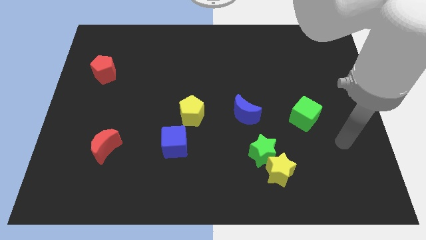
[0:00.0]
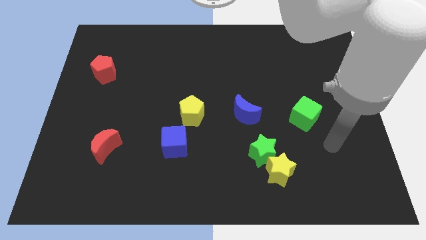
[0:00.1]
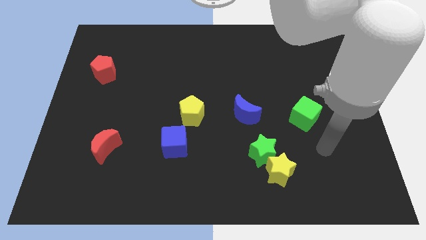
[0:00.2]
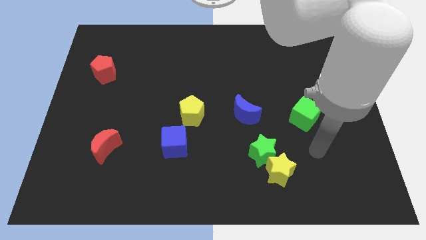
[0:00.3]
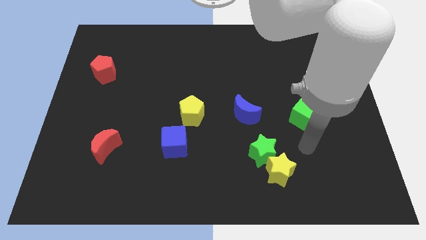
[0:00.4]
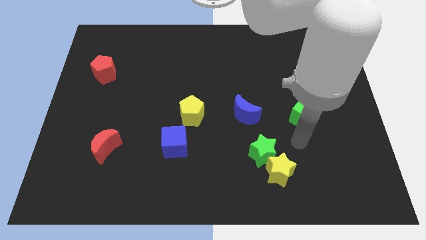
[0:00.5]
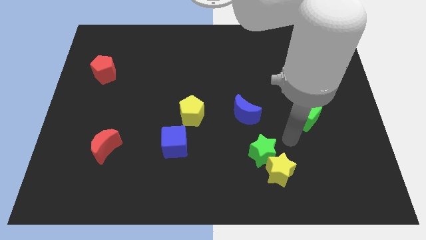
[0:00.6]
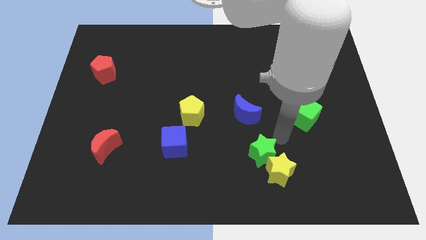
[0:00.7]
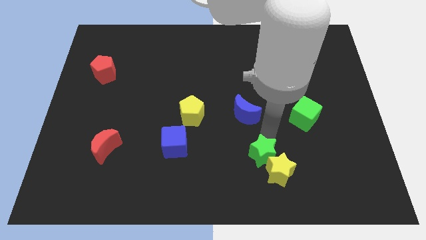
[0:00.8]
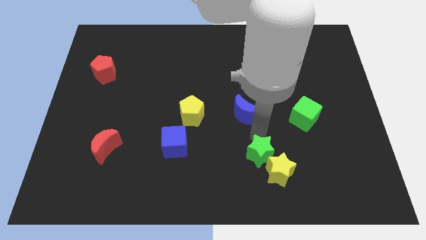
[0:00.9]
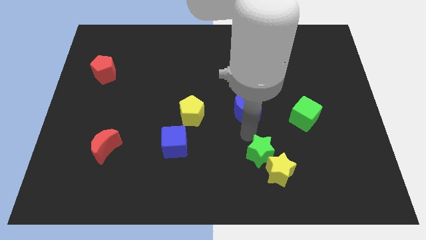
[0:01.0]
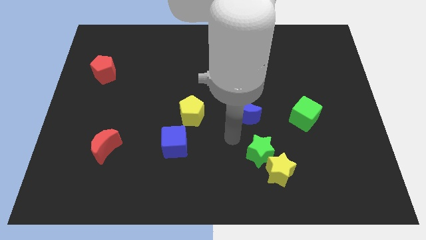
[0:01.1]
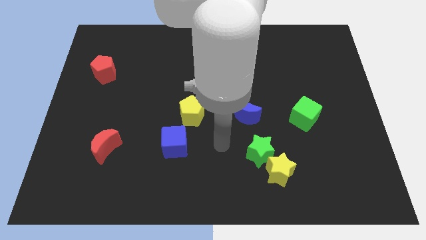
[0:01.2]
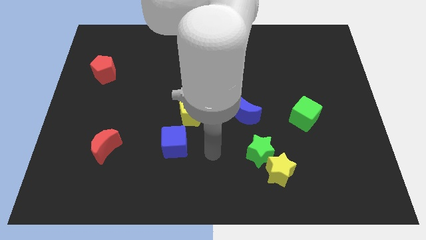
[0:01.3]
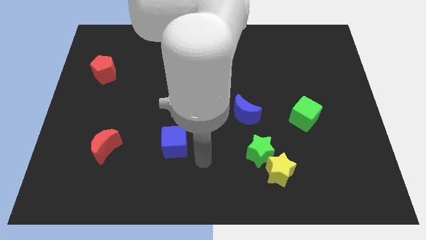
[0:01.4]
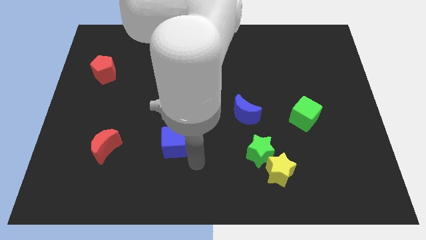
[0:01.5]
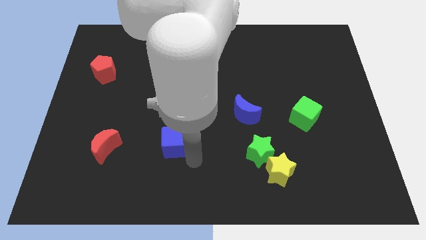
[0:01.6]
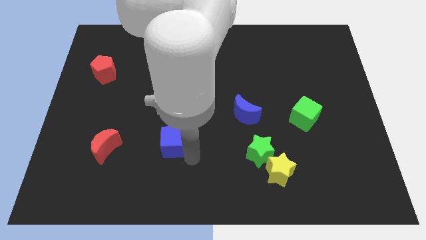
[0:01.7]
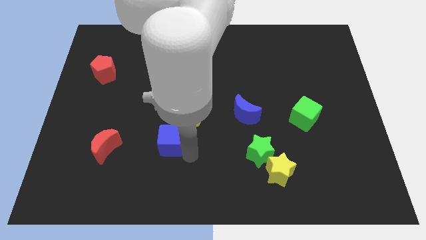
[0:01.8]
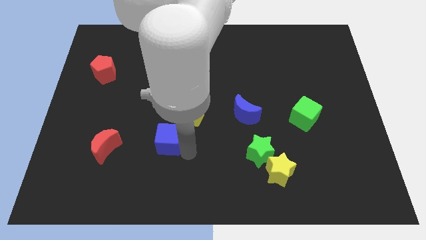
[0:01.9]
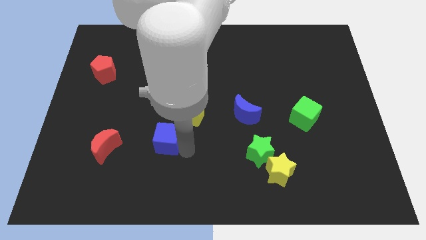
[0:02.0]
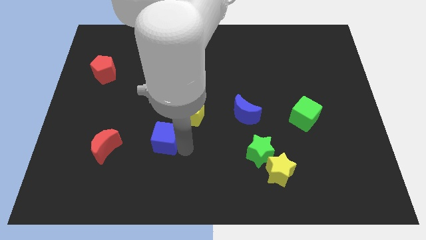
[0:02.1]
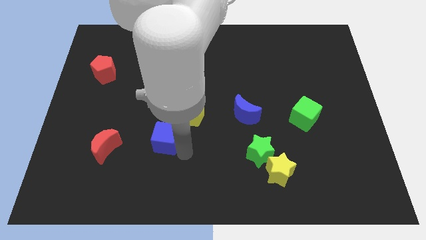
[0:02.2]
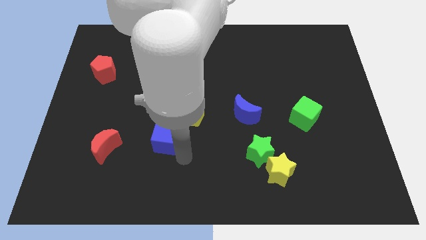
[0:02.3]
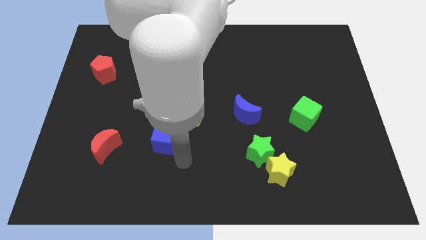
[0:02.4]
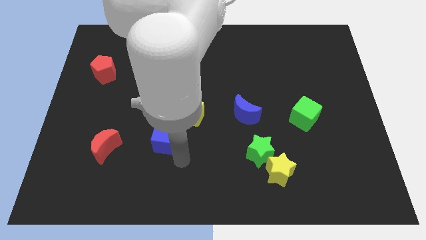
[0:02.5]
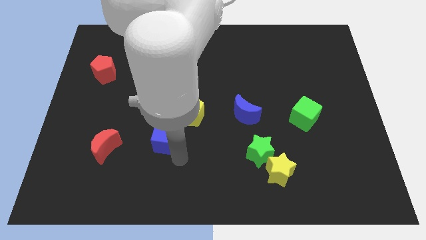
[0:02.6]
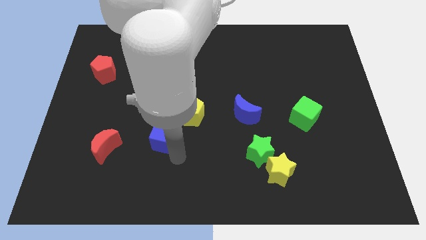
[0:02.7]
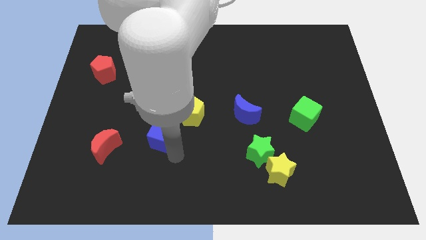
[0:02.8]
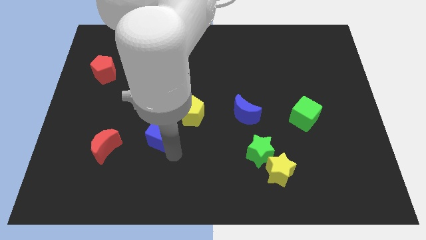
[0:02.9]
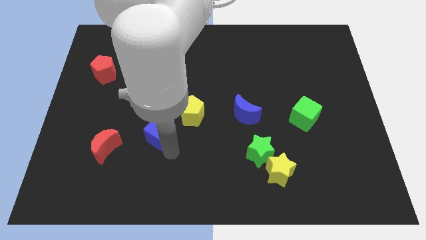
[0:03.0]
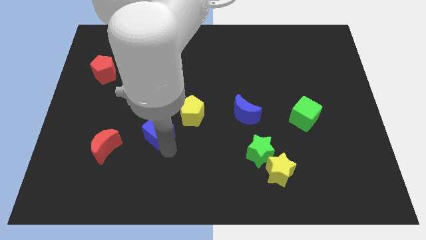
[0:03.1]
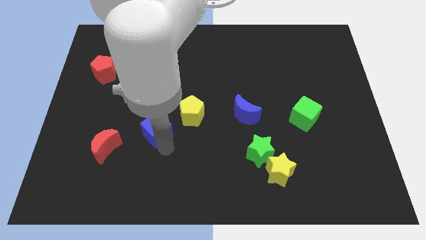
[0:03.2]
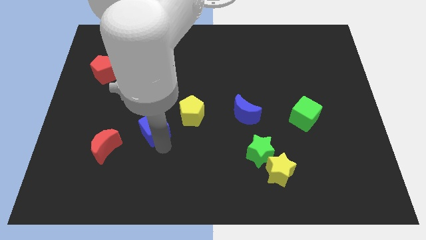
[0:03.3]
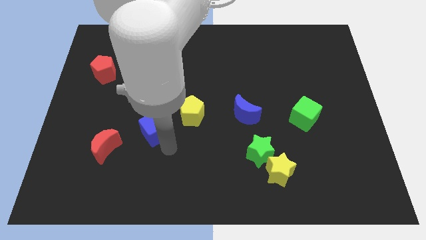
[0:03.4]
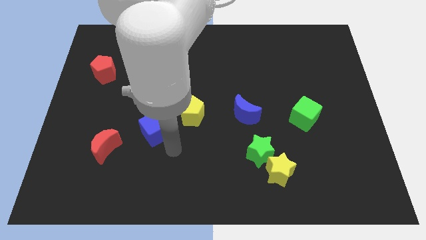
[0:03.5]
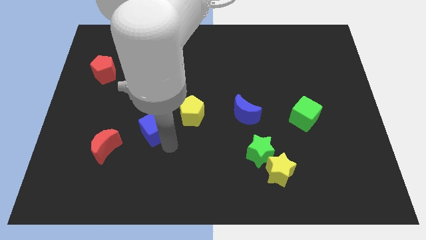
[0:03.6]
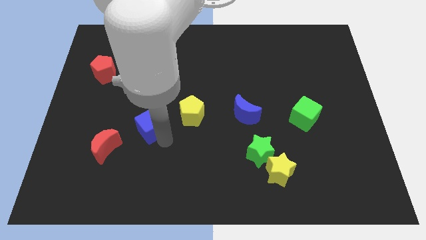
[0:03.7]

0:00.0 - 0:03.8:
push the blue cube upwards and then to the left slightly

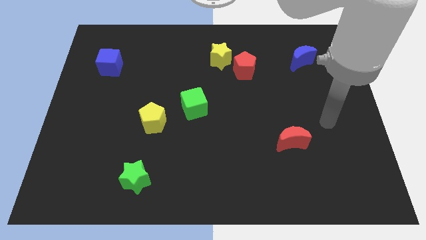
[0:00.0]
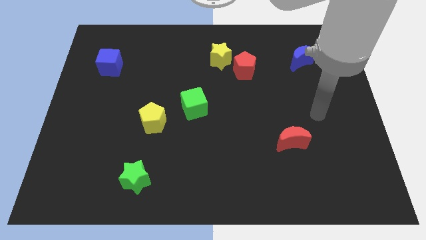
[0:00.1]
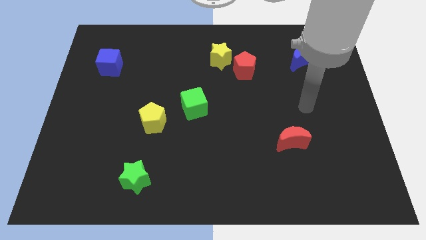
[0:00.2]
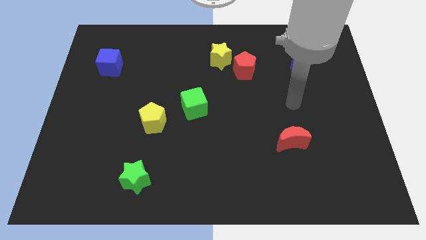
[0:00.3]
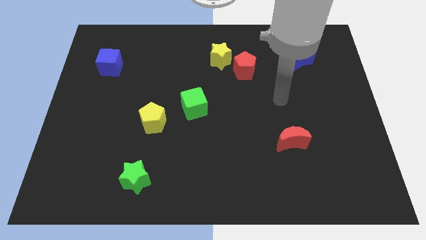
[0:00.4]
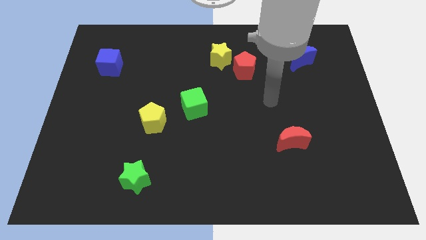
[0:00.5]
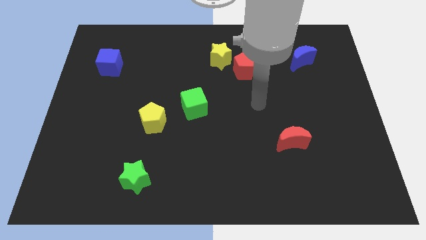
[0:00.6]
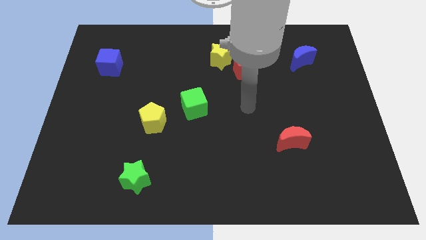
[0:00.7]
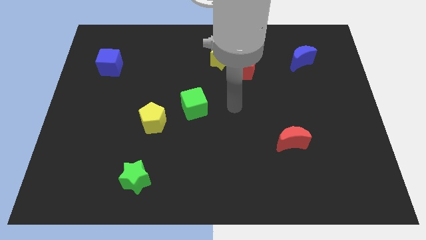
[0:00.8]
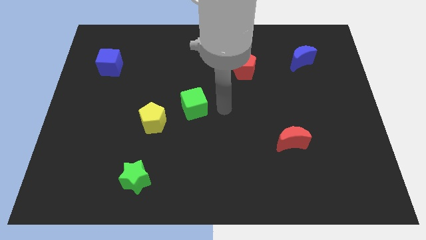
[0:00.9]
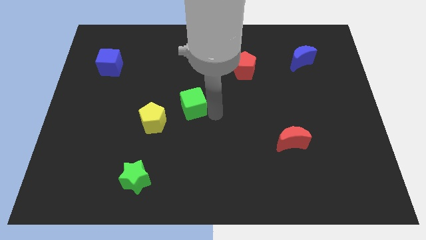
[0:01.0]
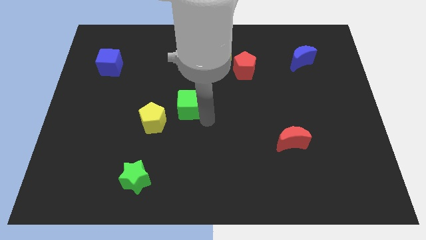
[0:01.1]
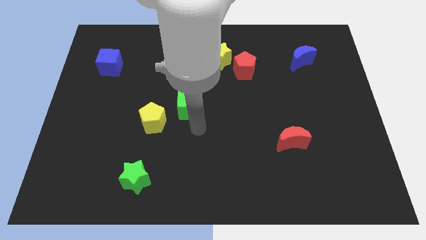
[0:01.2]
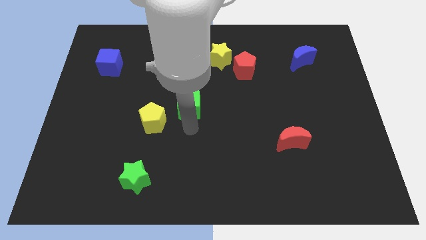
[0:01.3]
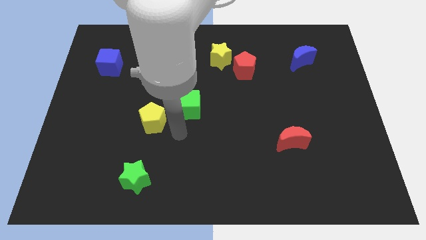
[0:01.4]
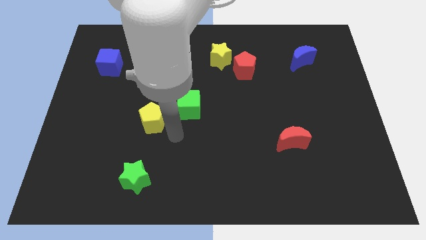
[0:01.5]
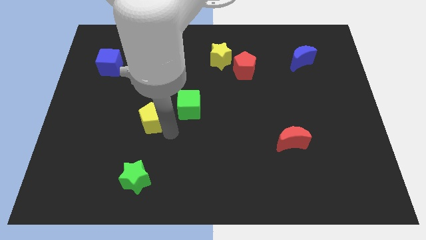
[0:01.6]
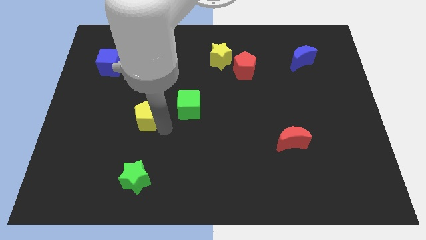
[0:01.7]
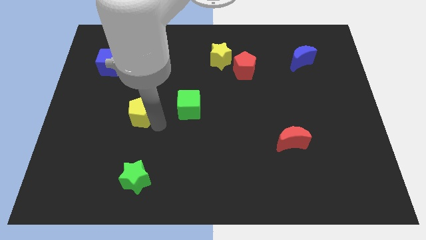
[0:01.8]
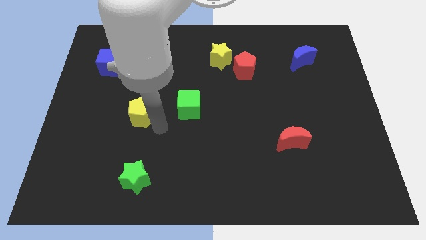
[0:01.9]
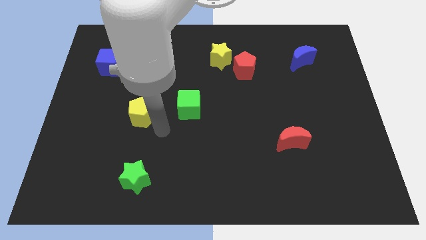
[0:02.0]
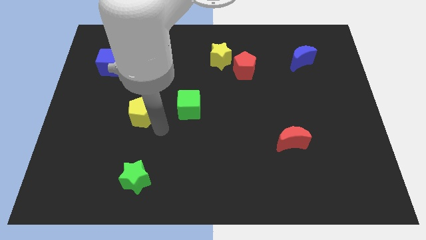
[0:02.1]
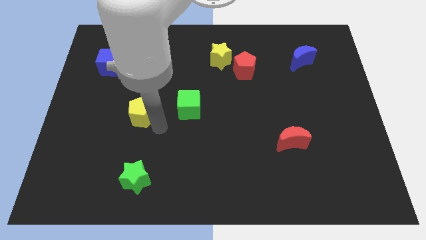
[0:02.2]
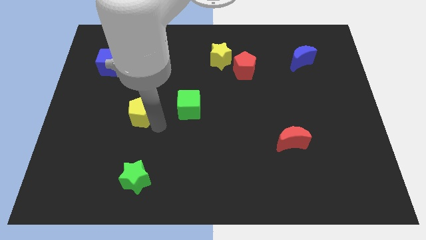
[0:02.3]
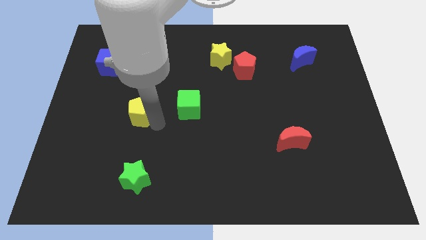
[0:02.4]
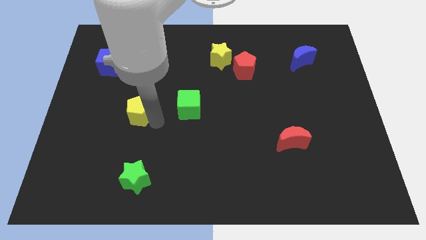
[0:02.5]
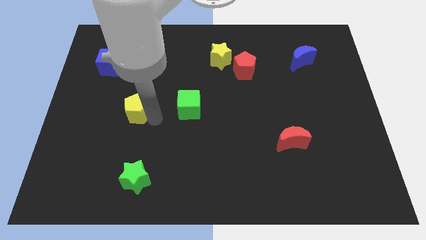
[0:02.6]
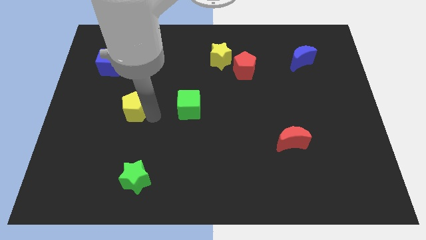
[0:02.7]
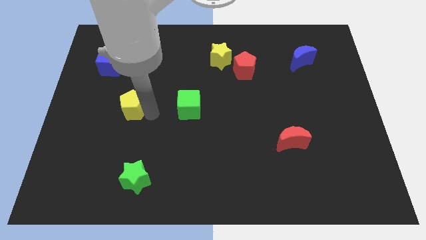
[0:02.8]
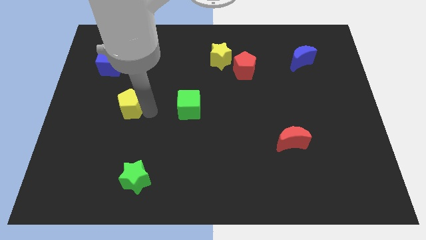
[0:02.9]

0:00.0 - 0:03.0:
slide the yellow pentagon slightly upwards and to the left

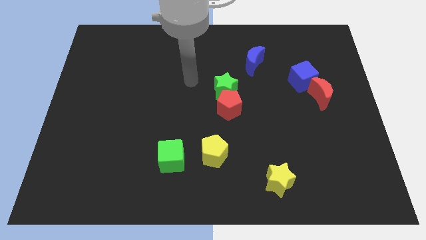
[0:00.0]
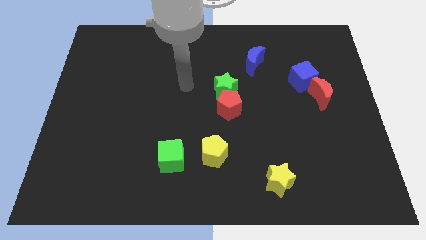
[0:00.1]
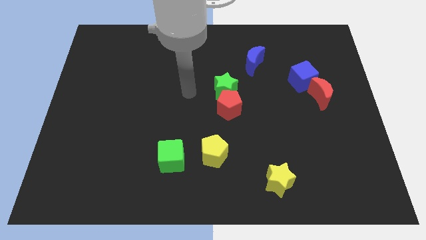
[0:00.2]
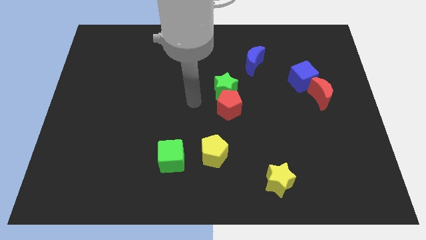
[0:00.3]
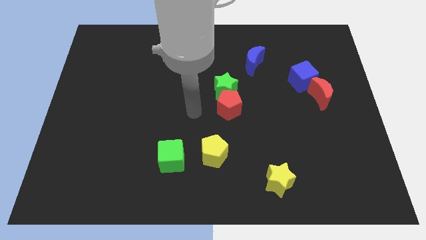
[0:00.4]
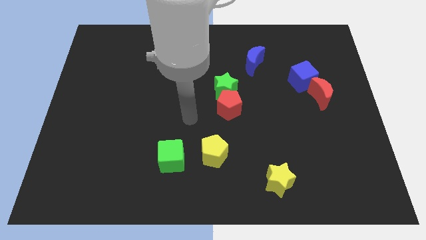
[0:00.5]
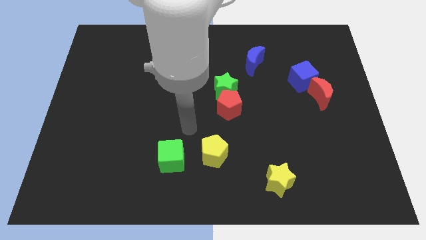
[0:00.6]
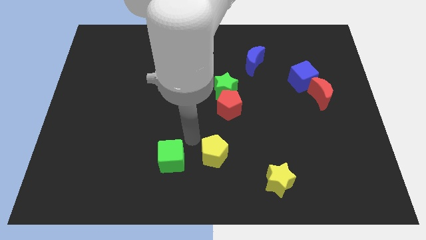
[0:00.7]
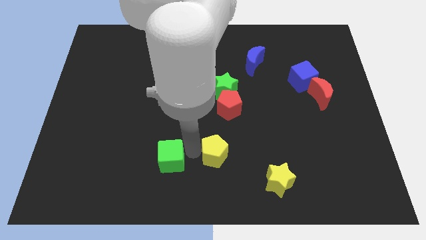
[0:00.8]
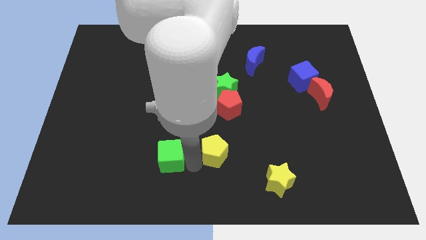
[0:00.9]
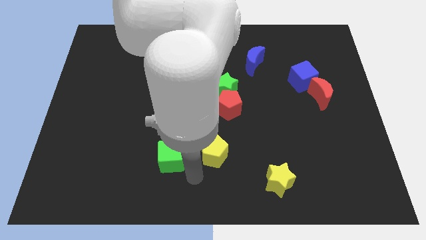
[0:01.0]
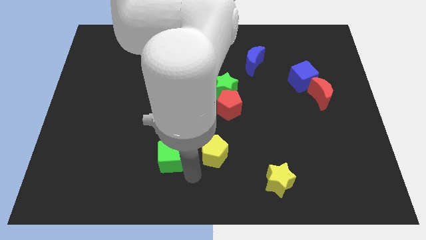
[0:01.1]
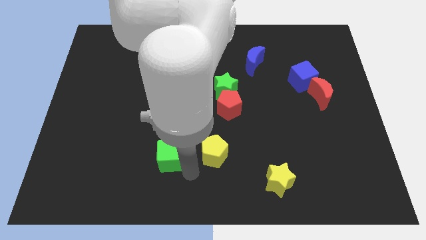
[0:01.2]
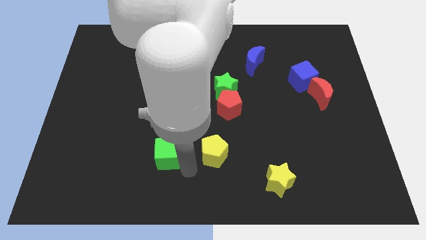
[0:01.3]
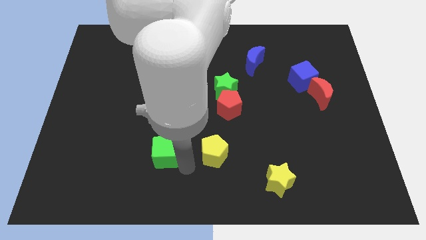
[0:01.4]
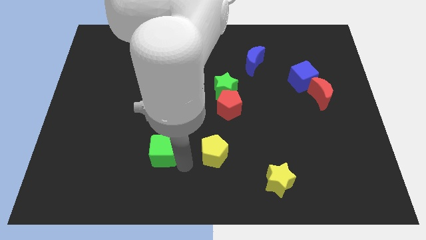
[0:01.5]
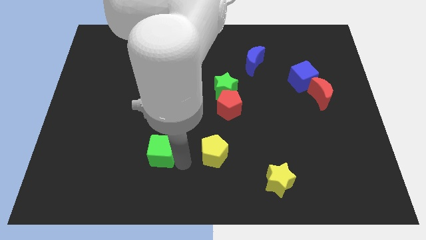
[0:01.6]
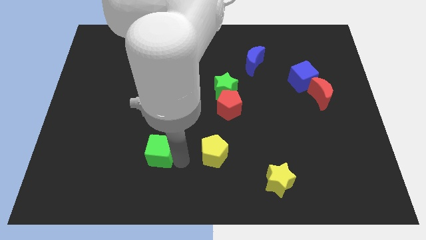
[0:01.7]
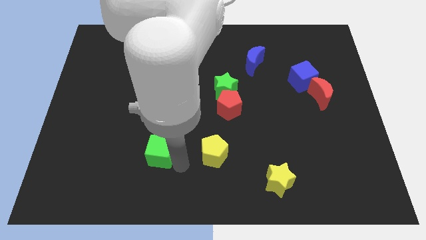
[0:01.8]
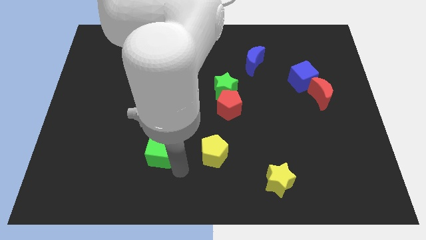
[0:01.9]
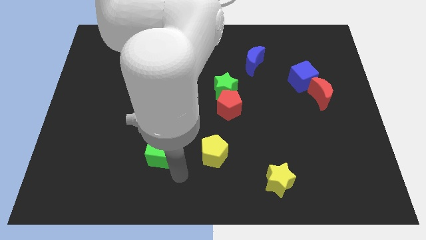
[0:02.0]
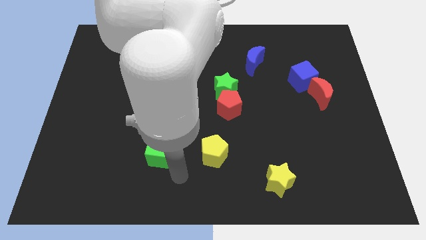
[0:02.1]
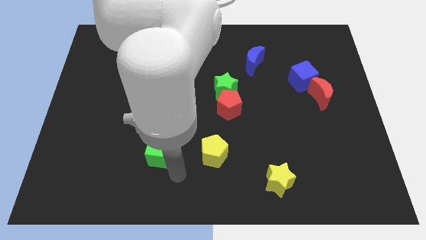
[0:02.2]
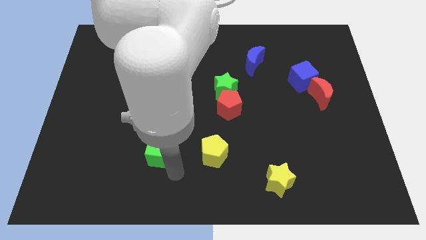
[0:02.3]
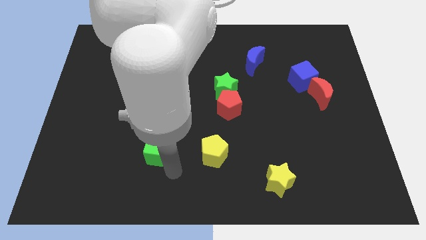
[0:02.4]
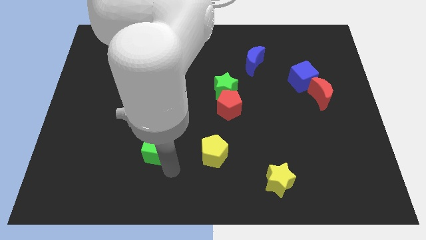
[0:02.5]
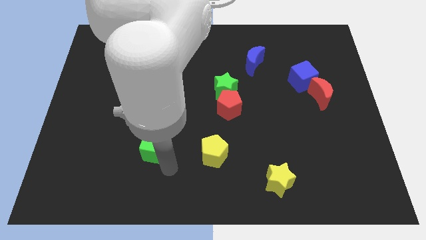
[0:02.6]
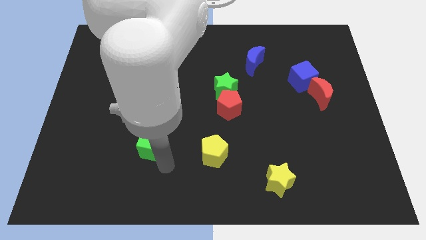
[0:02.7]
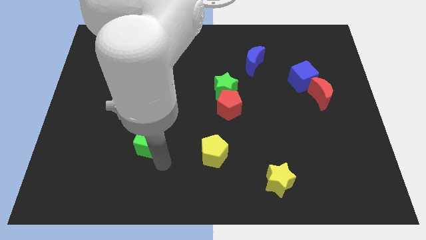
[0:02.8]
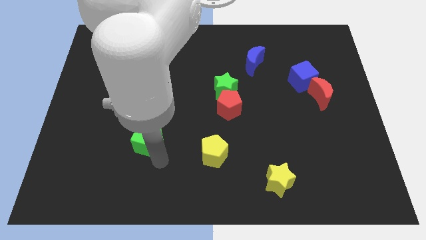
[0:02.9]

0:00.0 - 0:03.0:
push the green cube up and to the left diagonally a little
